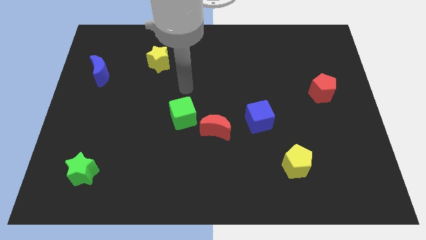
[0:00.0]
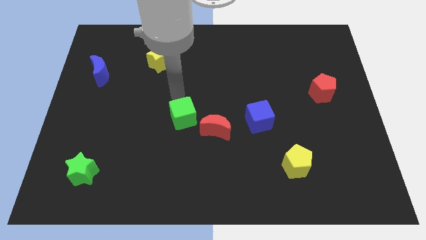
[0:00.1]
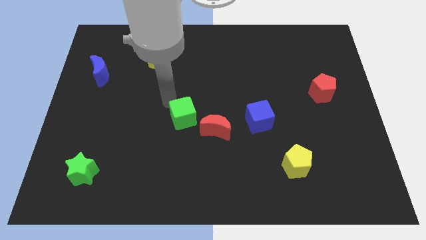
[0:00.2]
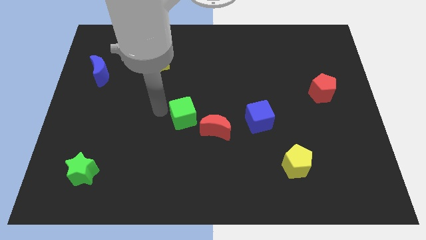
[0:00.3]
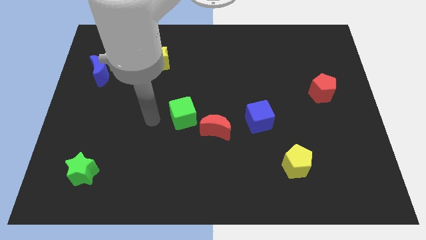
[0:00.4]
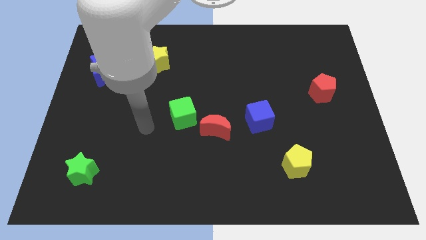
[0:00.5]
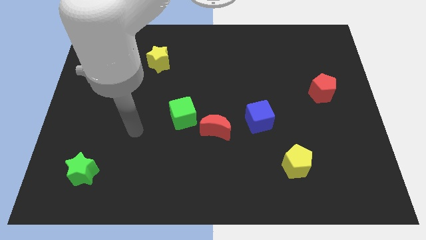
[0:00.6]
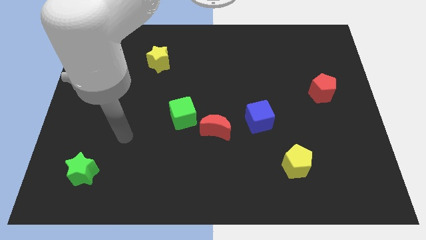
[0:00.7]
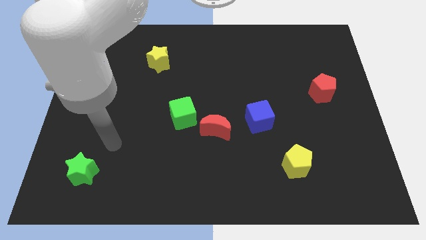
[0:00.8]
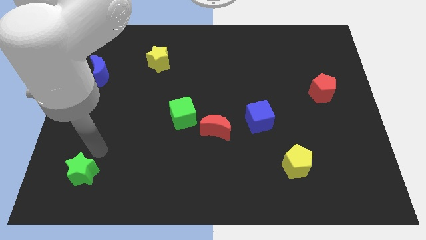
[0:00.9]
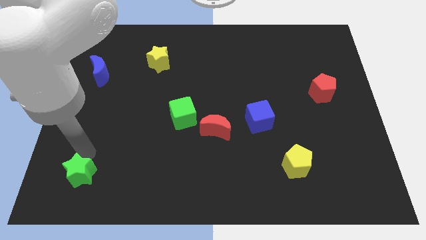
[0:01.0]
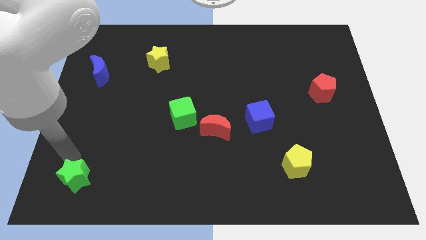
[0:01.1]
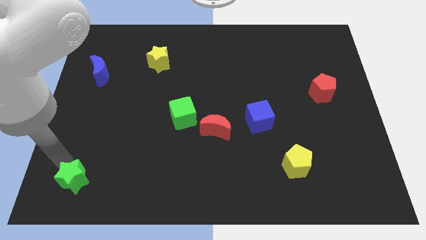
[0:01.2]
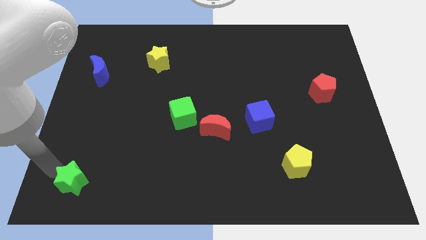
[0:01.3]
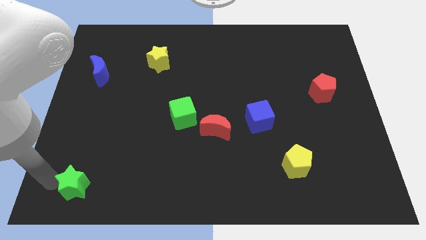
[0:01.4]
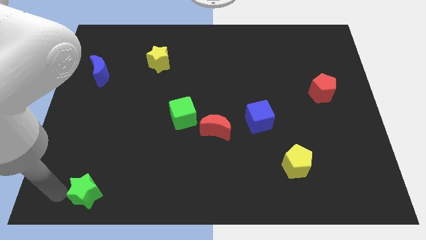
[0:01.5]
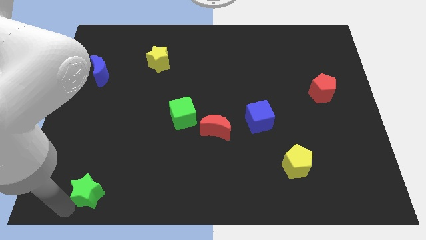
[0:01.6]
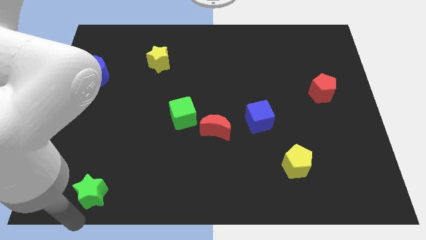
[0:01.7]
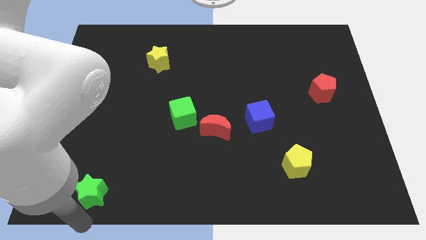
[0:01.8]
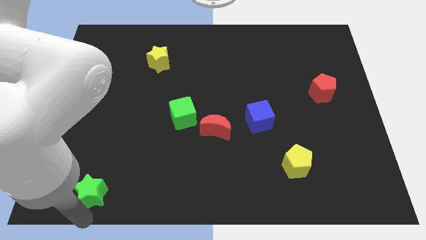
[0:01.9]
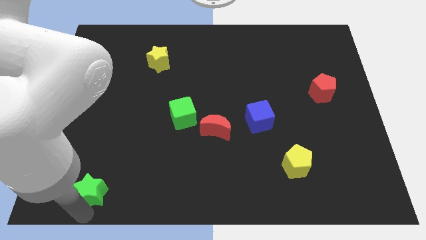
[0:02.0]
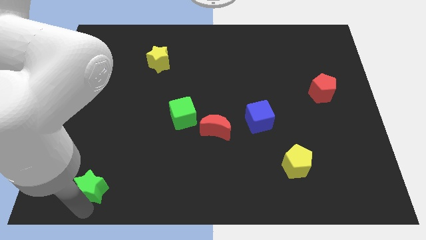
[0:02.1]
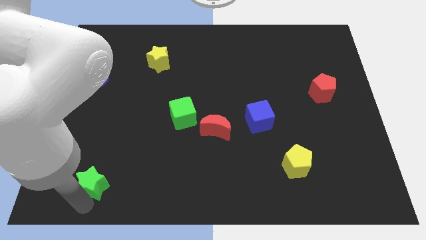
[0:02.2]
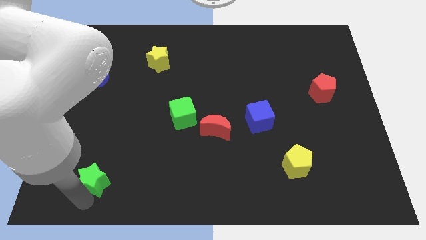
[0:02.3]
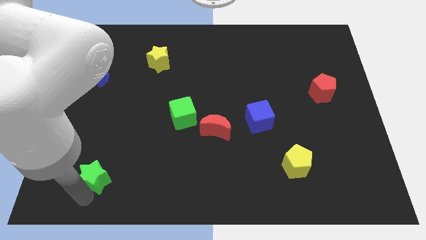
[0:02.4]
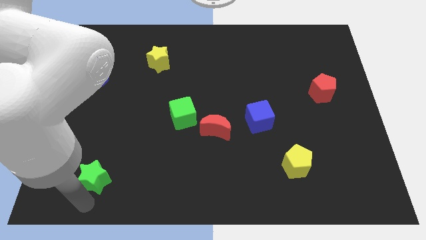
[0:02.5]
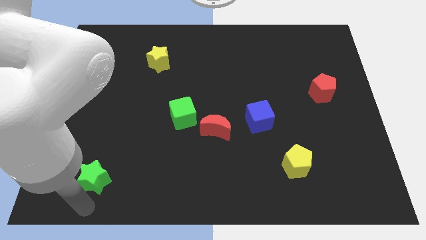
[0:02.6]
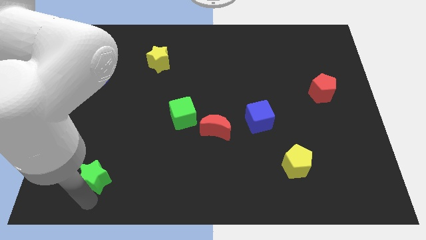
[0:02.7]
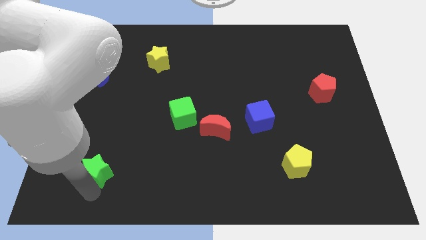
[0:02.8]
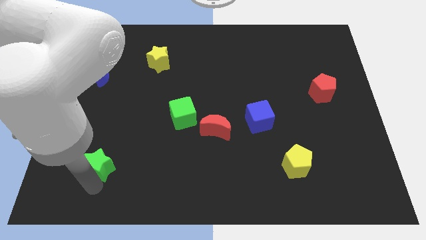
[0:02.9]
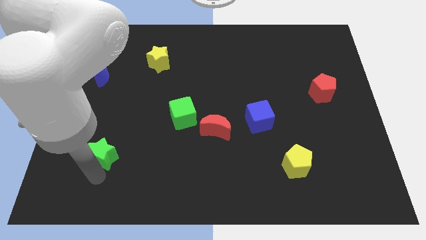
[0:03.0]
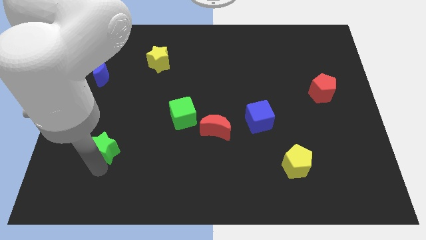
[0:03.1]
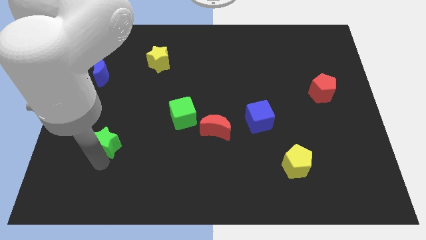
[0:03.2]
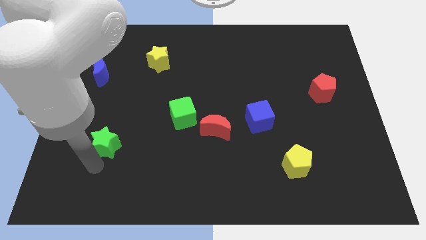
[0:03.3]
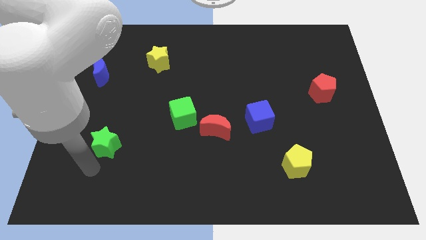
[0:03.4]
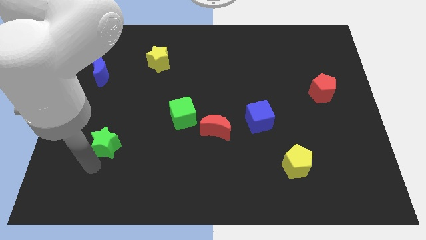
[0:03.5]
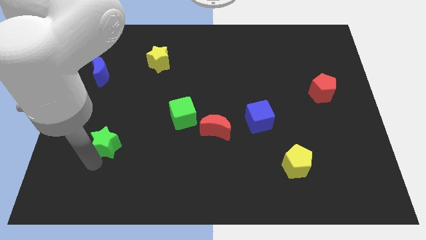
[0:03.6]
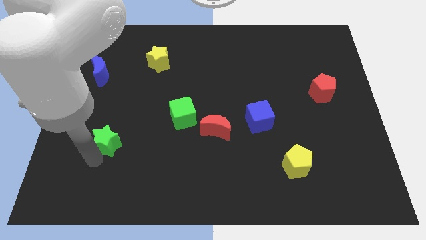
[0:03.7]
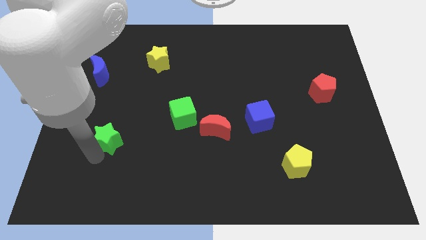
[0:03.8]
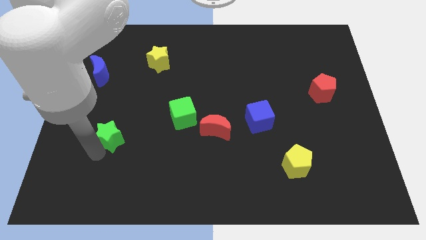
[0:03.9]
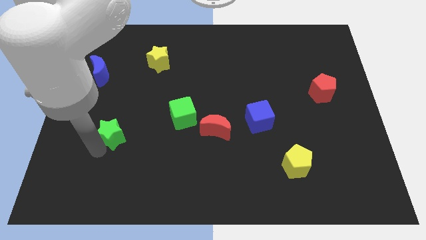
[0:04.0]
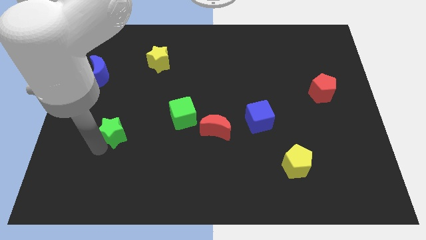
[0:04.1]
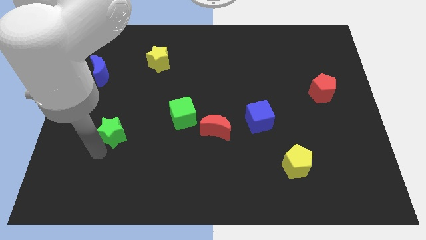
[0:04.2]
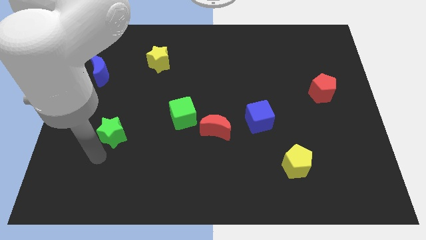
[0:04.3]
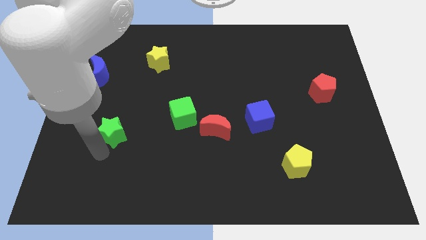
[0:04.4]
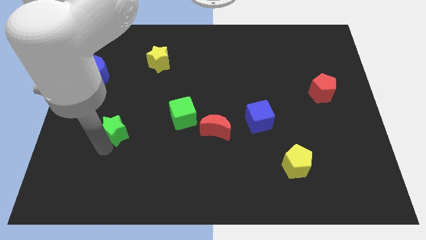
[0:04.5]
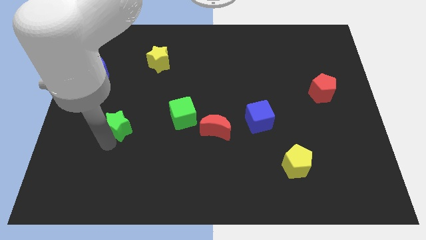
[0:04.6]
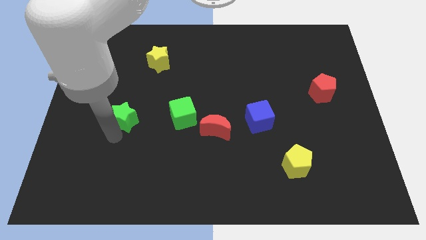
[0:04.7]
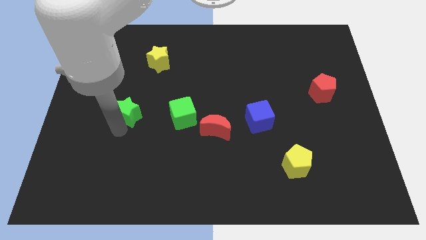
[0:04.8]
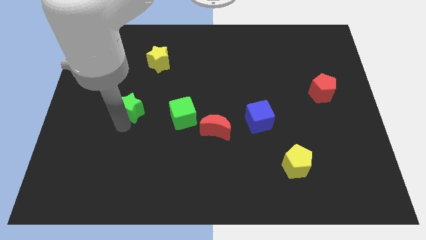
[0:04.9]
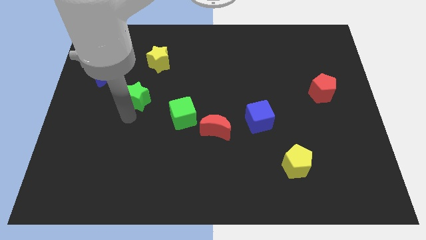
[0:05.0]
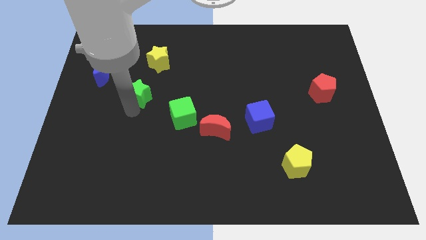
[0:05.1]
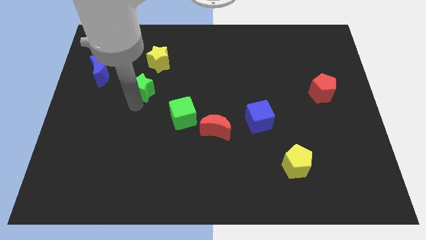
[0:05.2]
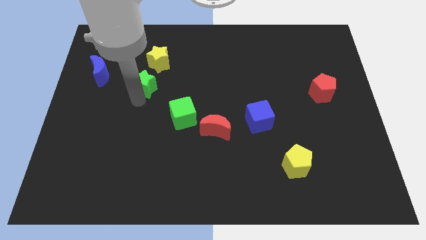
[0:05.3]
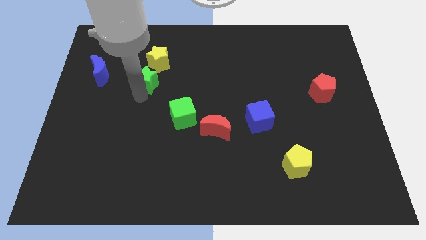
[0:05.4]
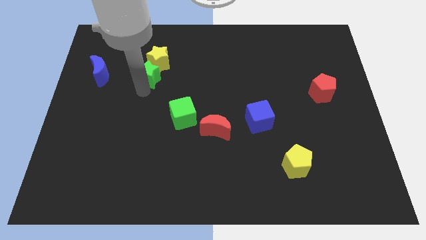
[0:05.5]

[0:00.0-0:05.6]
put the green star towards the yellow star

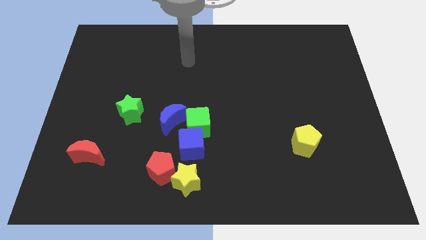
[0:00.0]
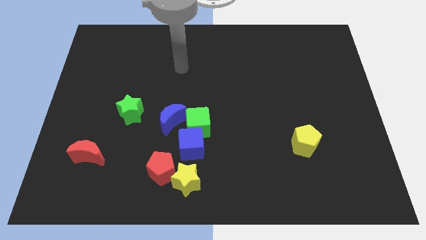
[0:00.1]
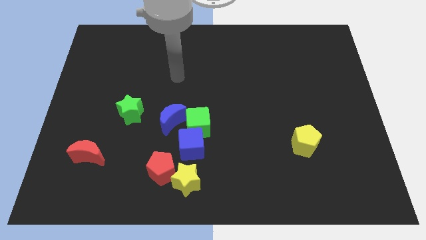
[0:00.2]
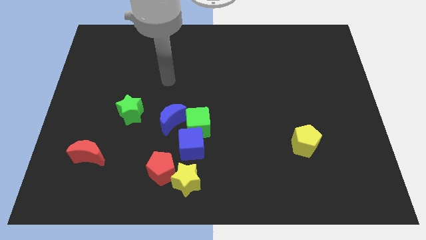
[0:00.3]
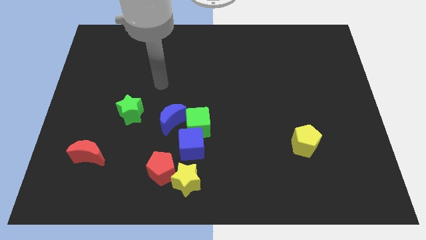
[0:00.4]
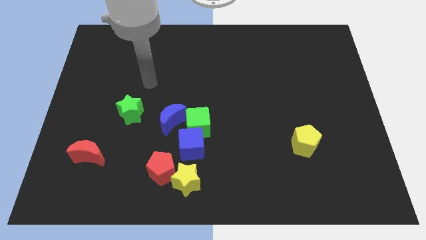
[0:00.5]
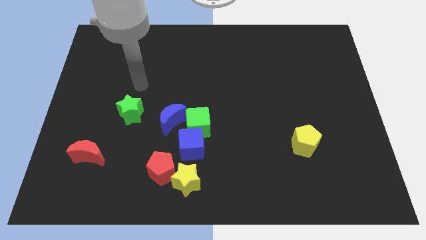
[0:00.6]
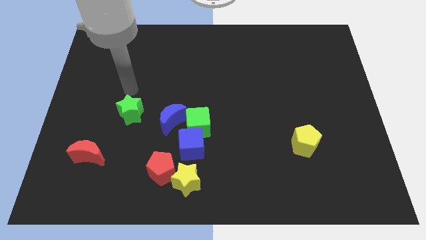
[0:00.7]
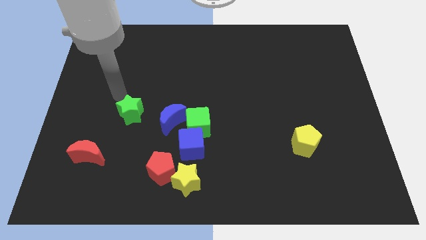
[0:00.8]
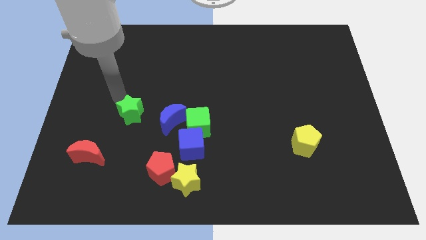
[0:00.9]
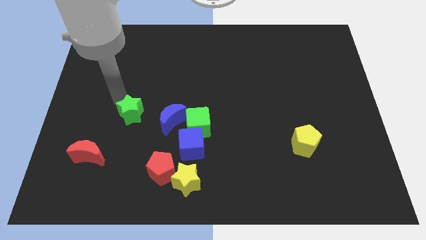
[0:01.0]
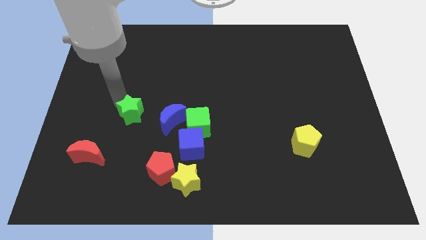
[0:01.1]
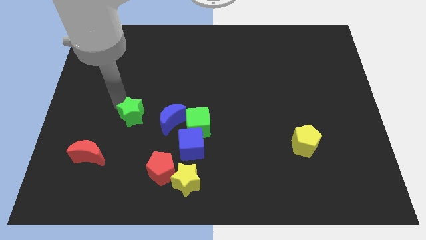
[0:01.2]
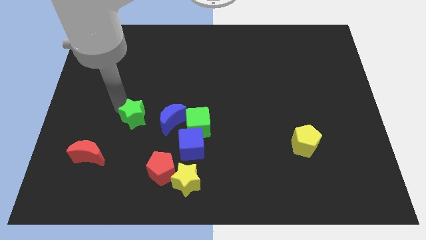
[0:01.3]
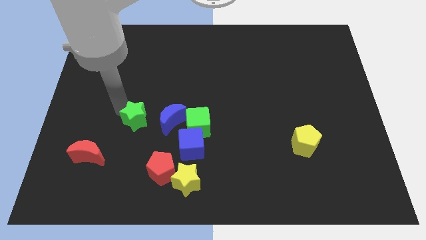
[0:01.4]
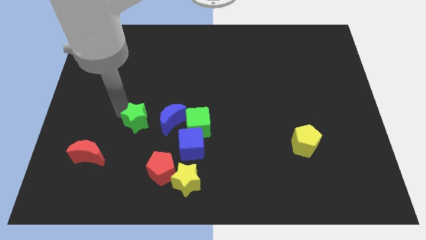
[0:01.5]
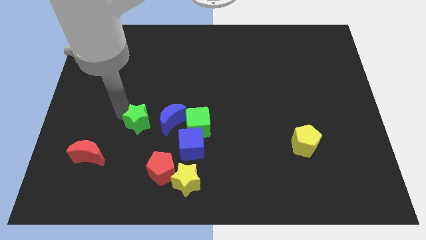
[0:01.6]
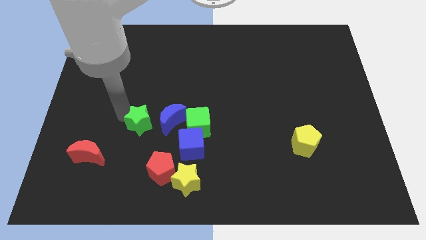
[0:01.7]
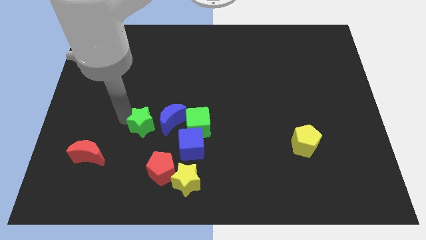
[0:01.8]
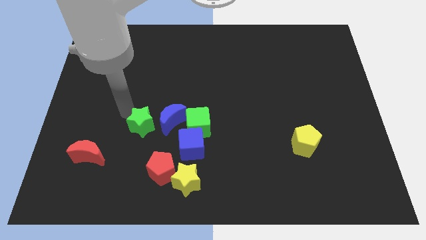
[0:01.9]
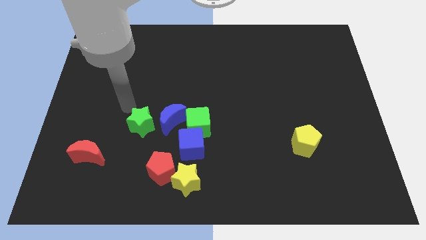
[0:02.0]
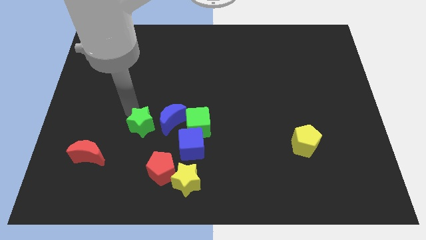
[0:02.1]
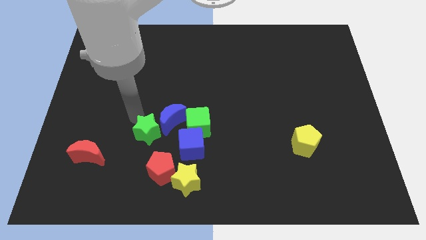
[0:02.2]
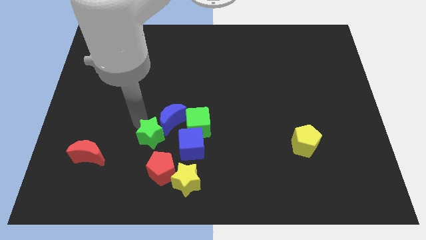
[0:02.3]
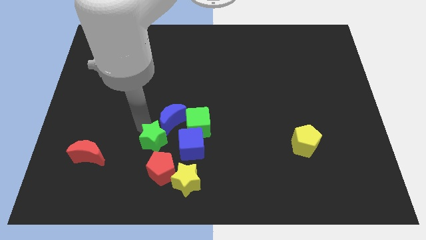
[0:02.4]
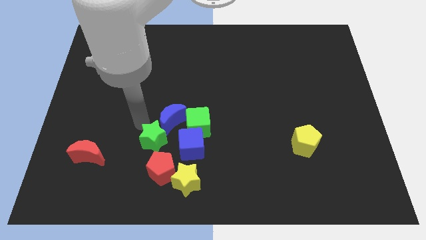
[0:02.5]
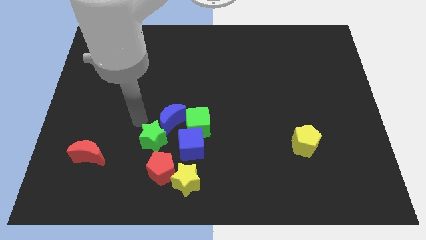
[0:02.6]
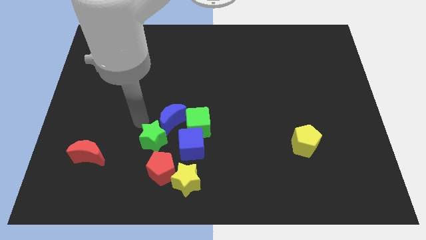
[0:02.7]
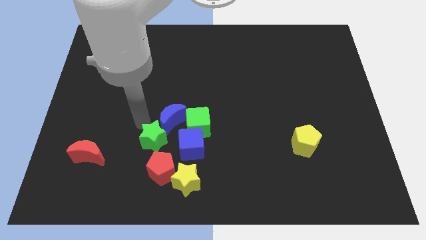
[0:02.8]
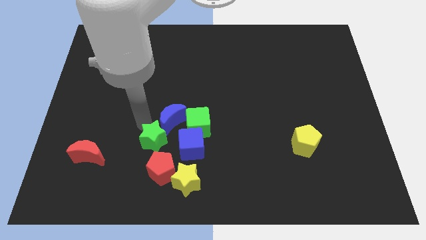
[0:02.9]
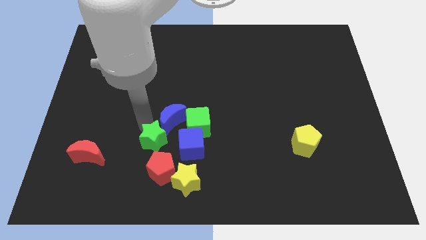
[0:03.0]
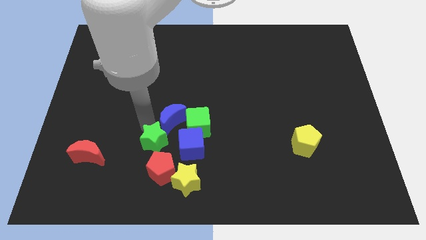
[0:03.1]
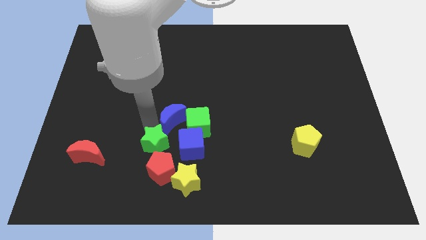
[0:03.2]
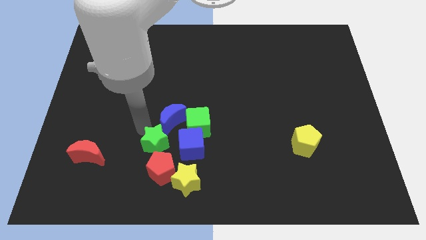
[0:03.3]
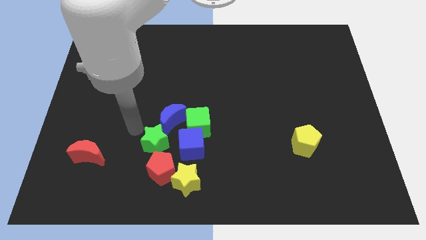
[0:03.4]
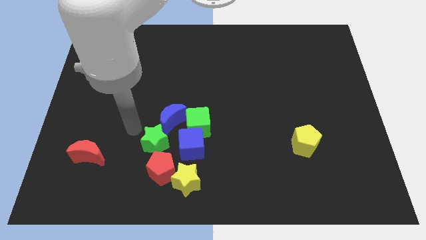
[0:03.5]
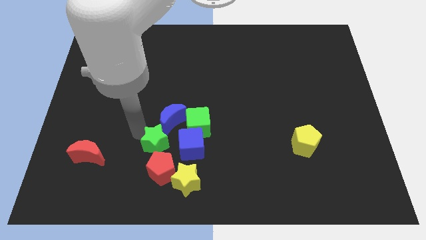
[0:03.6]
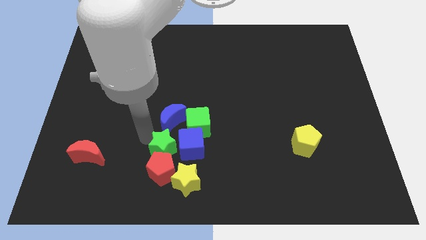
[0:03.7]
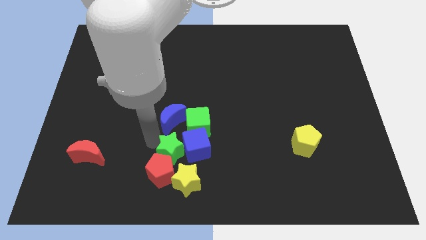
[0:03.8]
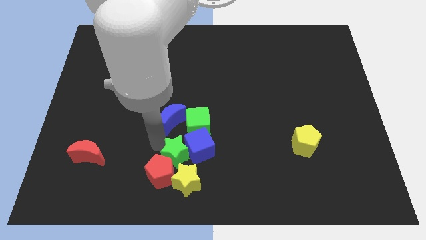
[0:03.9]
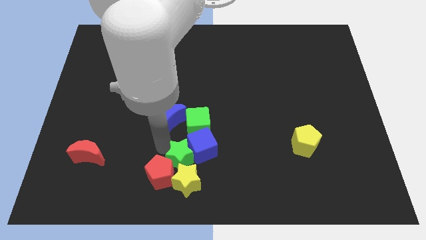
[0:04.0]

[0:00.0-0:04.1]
put the green star close to the yellow star
